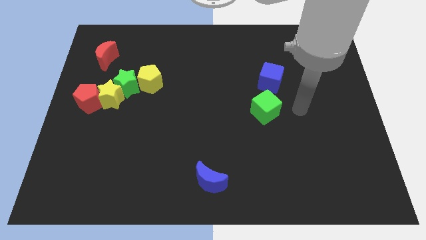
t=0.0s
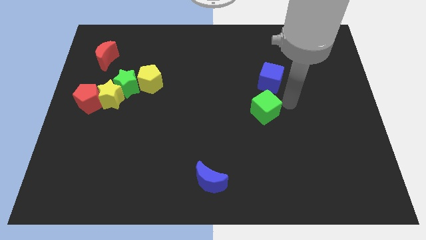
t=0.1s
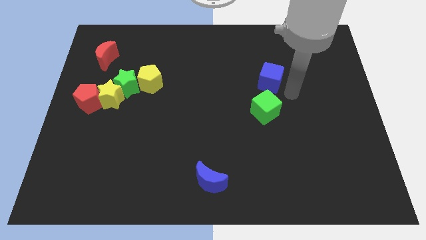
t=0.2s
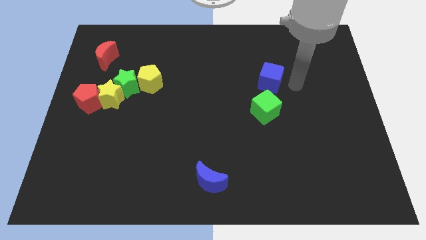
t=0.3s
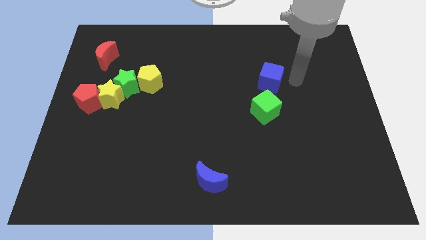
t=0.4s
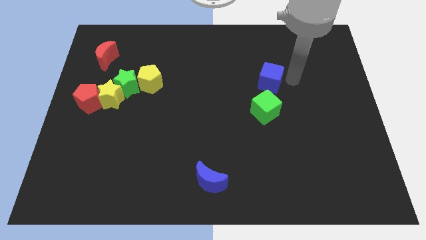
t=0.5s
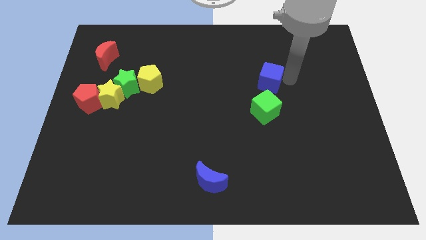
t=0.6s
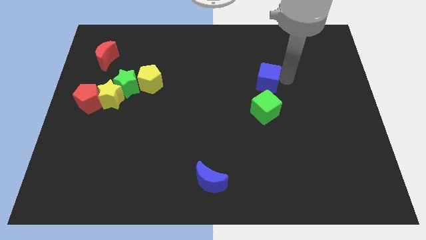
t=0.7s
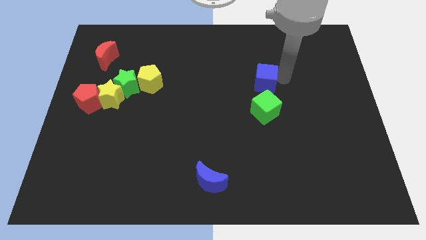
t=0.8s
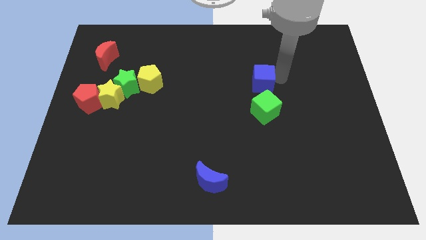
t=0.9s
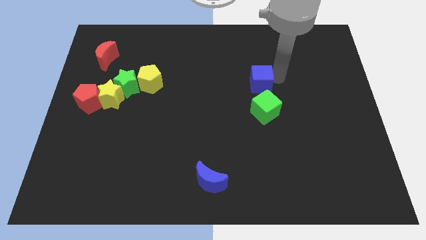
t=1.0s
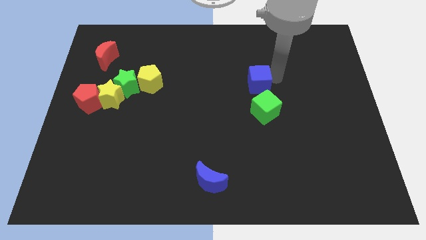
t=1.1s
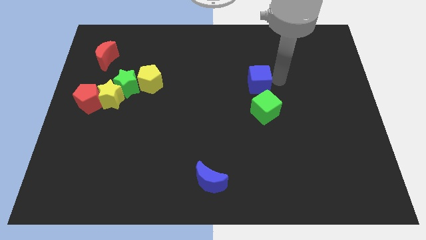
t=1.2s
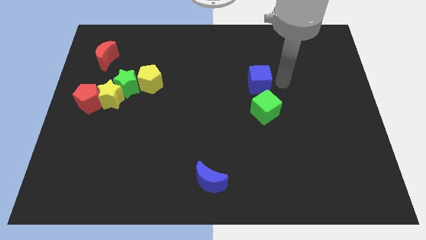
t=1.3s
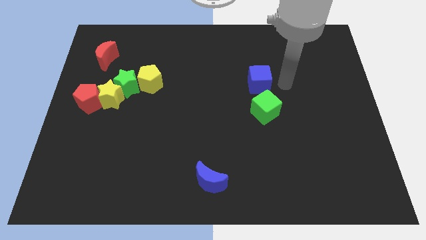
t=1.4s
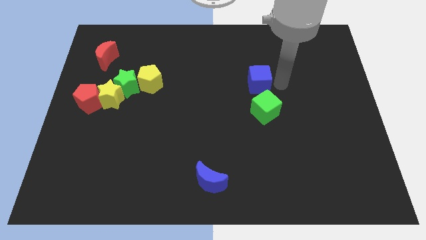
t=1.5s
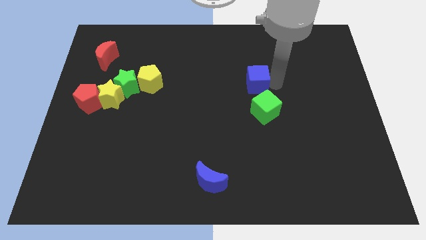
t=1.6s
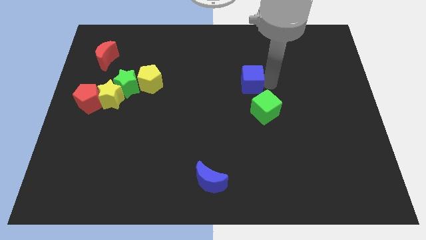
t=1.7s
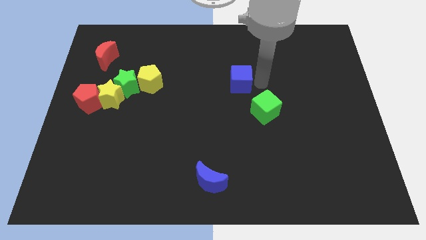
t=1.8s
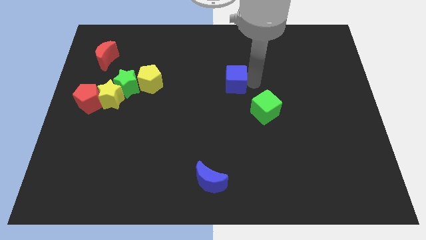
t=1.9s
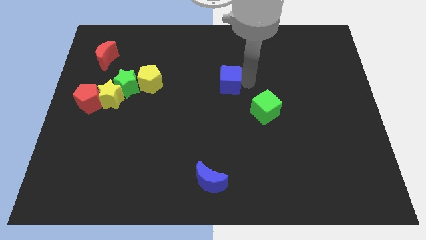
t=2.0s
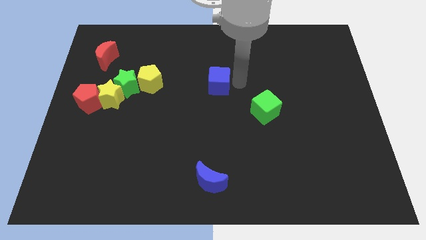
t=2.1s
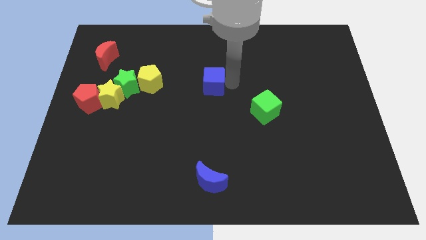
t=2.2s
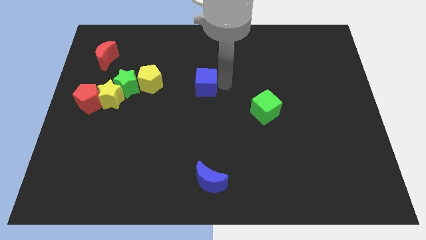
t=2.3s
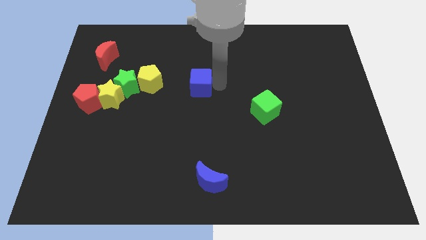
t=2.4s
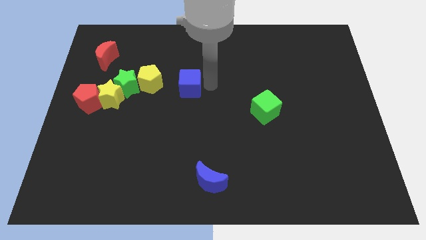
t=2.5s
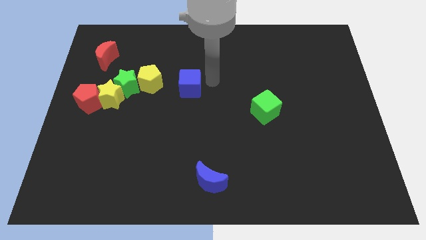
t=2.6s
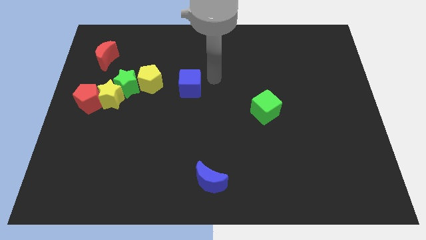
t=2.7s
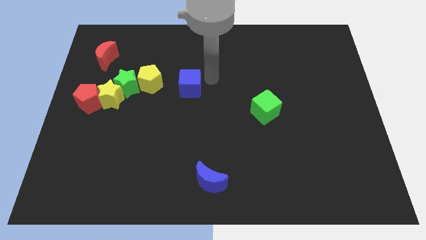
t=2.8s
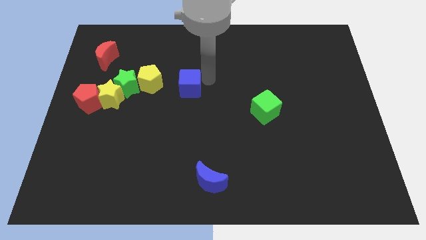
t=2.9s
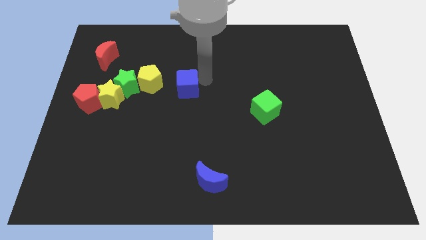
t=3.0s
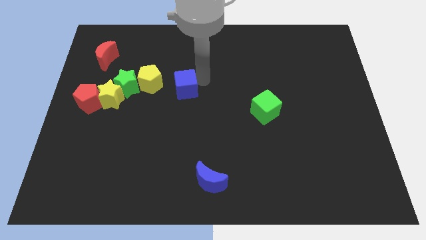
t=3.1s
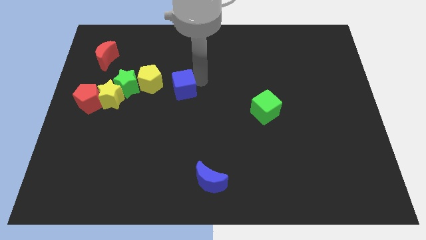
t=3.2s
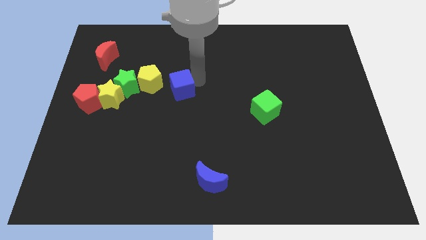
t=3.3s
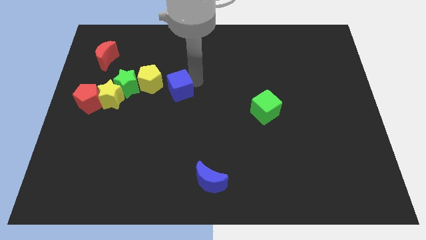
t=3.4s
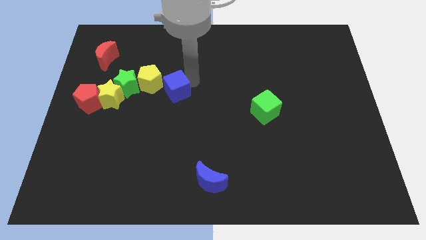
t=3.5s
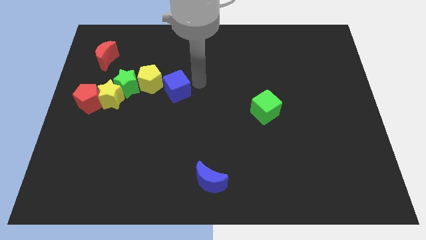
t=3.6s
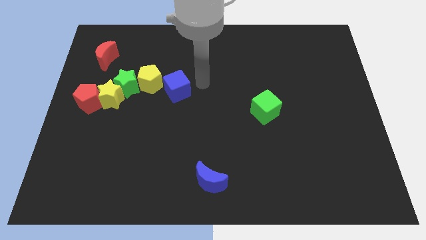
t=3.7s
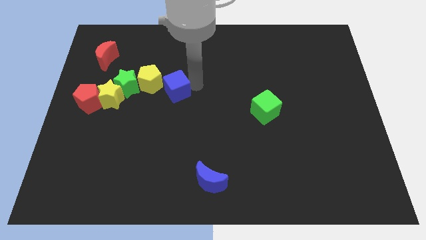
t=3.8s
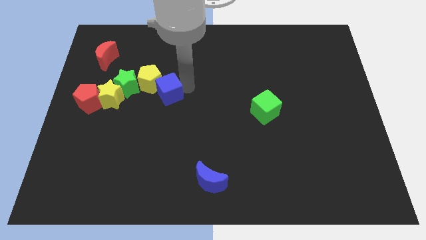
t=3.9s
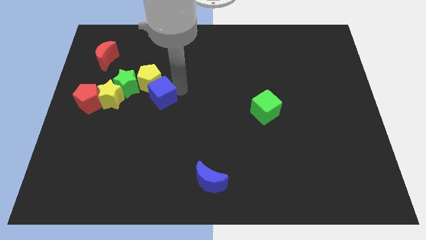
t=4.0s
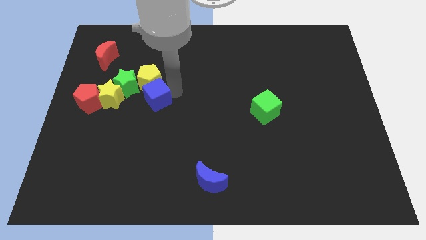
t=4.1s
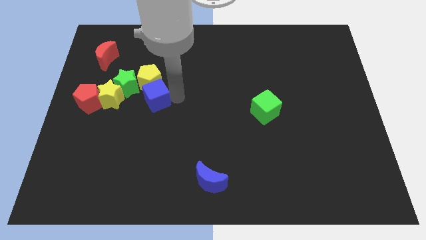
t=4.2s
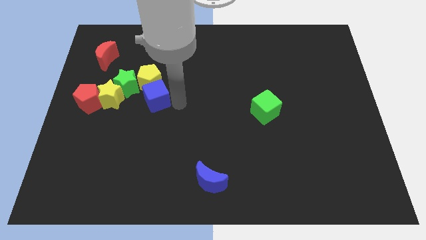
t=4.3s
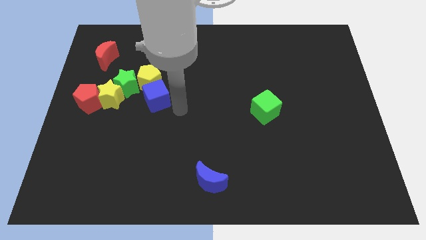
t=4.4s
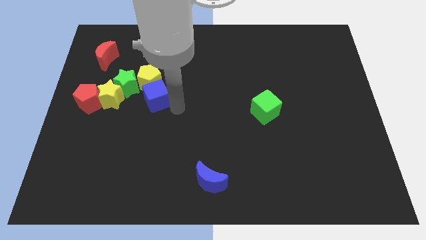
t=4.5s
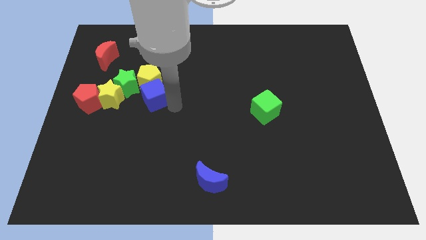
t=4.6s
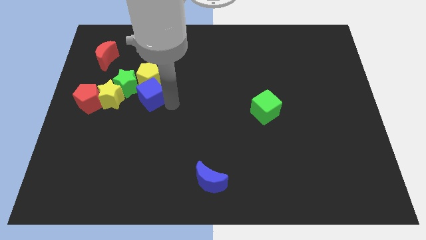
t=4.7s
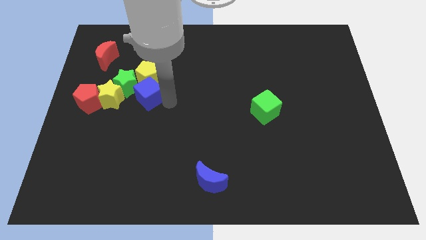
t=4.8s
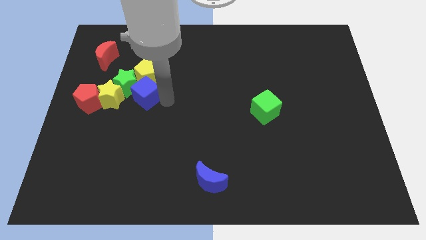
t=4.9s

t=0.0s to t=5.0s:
slide the blue cube to the green star
